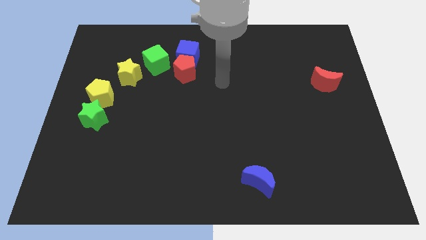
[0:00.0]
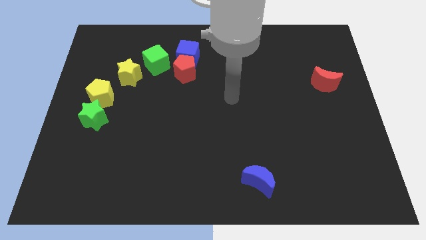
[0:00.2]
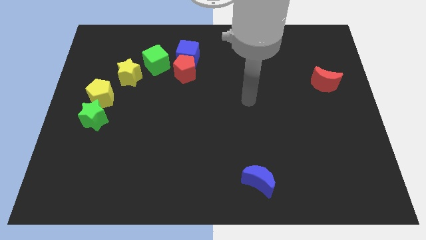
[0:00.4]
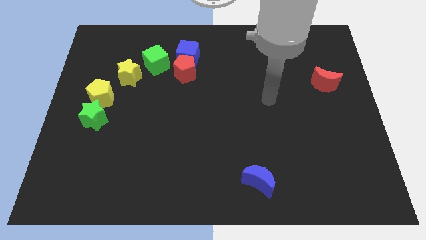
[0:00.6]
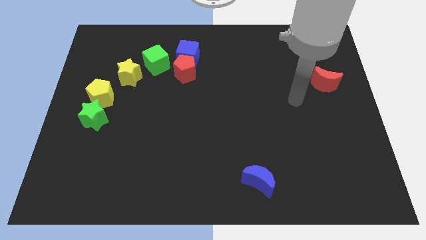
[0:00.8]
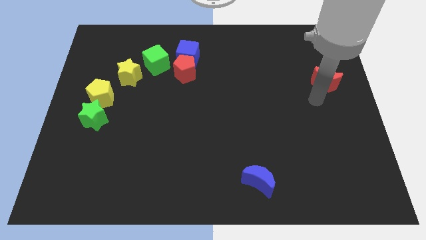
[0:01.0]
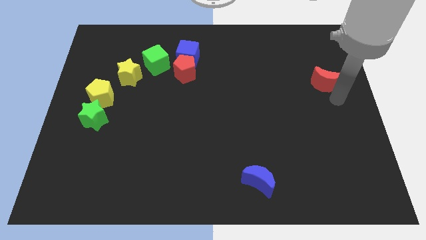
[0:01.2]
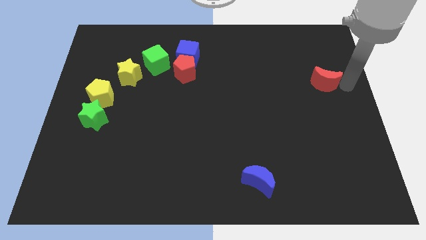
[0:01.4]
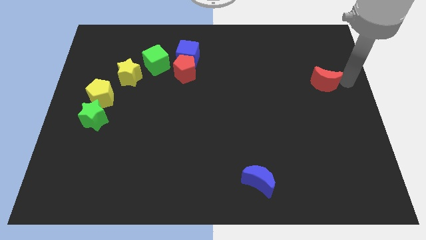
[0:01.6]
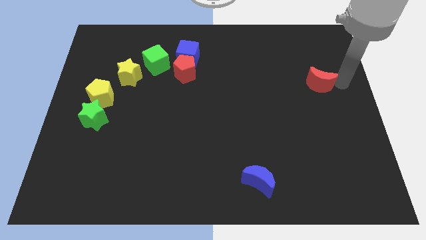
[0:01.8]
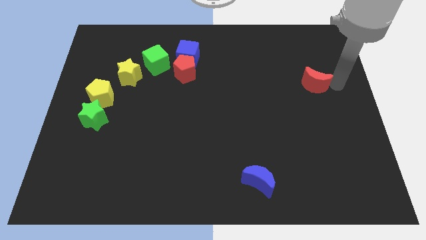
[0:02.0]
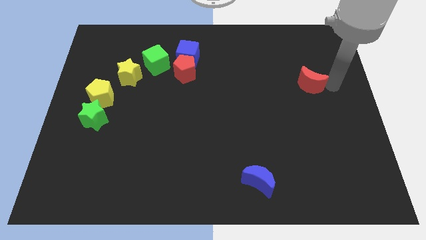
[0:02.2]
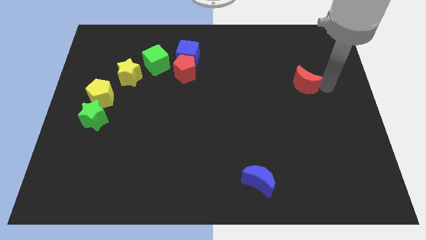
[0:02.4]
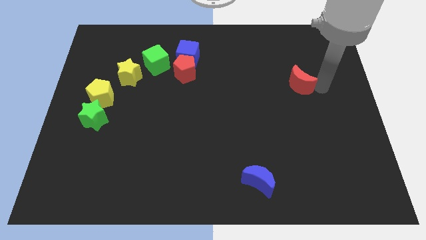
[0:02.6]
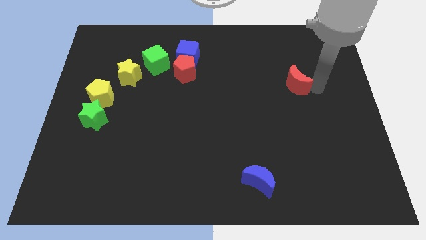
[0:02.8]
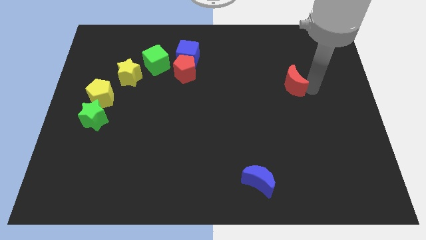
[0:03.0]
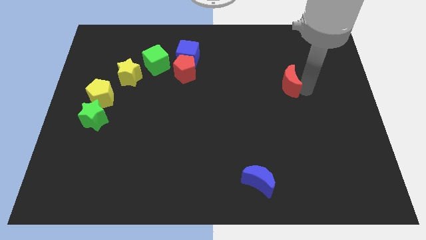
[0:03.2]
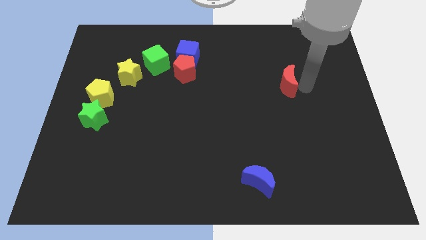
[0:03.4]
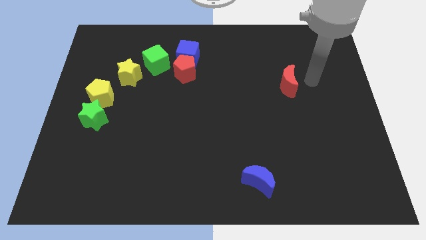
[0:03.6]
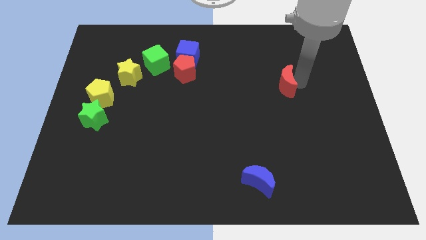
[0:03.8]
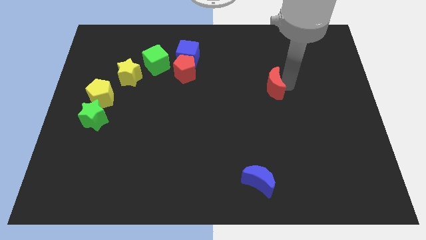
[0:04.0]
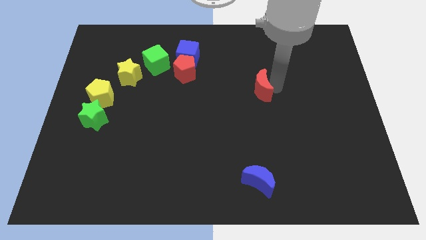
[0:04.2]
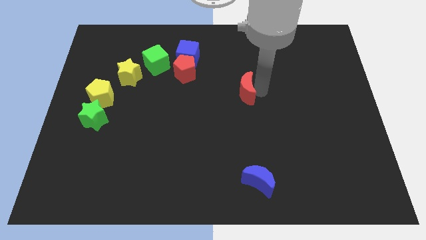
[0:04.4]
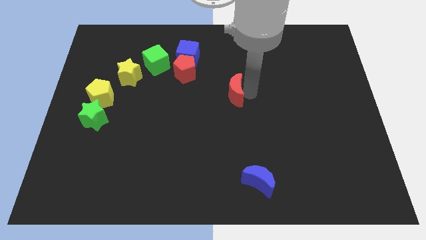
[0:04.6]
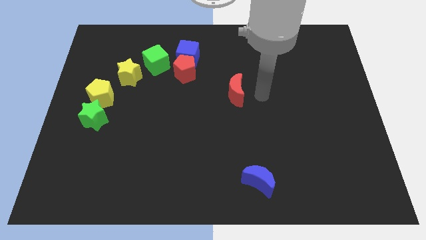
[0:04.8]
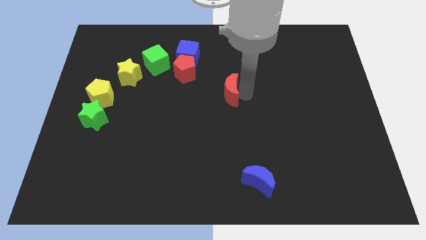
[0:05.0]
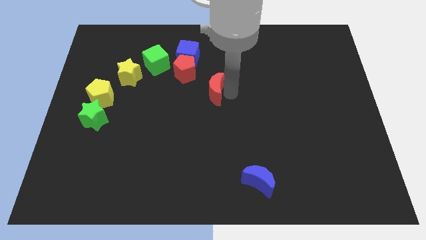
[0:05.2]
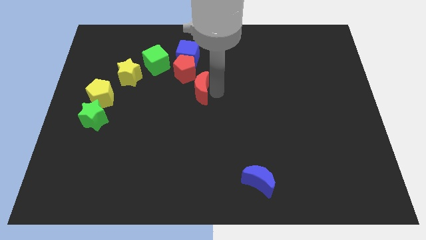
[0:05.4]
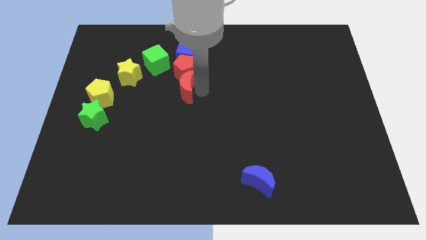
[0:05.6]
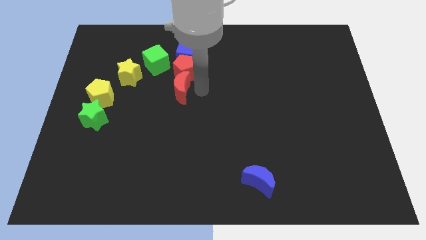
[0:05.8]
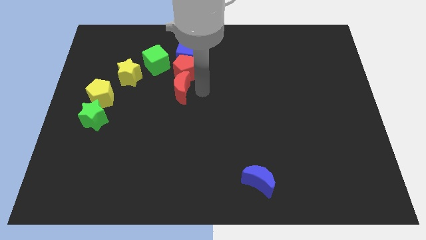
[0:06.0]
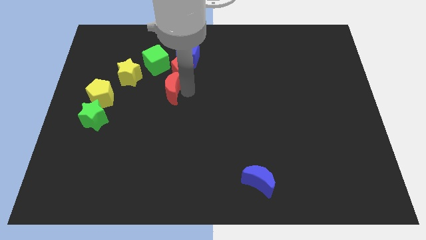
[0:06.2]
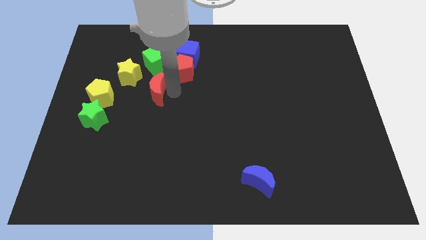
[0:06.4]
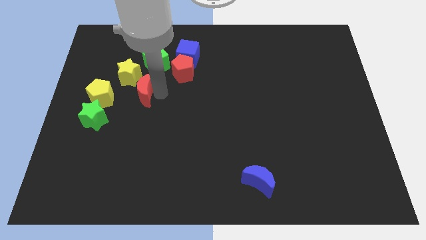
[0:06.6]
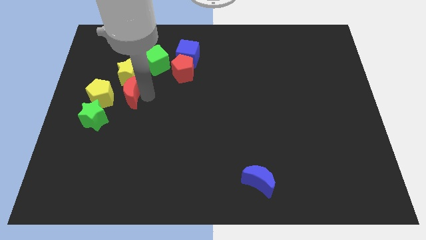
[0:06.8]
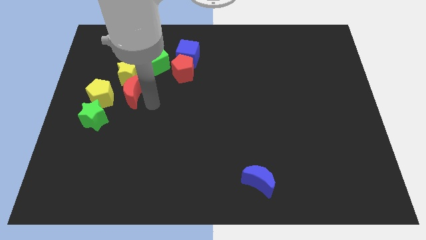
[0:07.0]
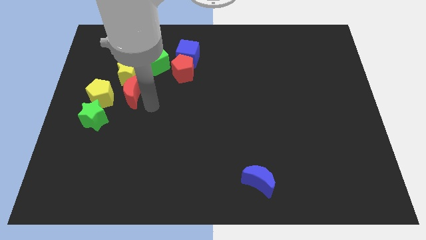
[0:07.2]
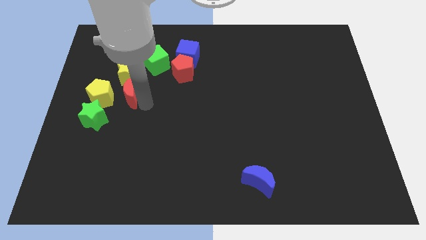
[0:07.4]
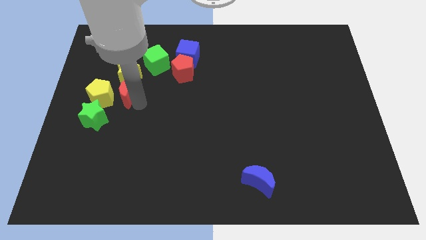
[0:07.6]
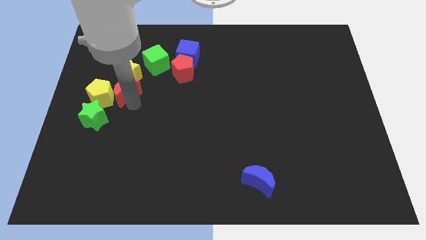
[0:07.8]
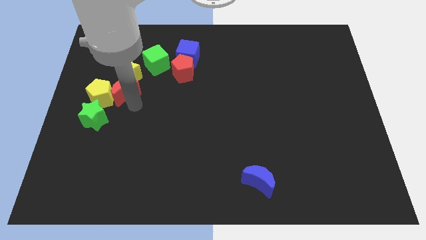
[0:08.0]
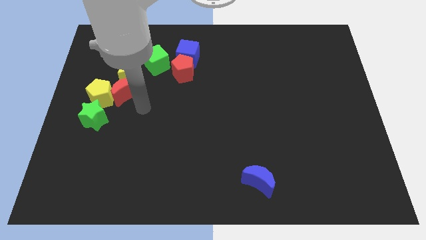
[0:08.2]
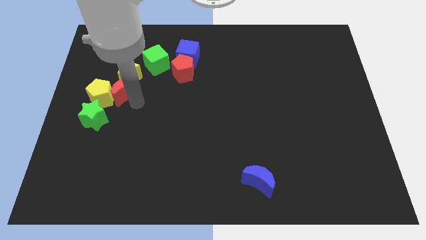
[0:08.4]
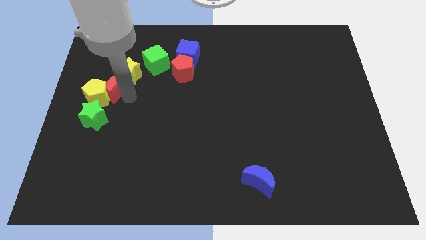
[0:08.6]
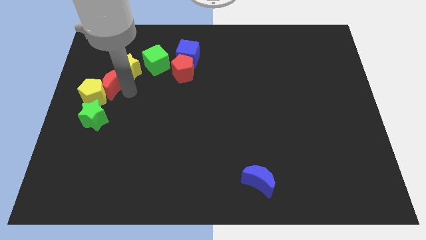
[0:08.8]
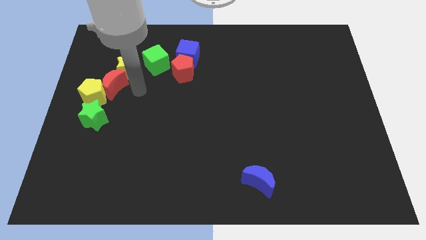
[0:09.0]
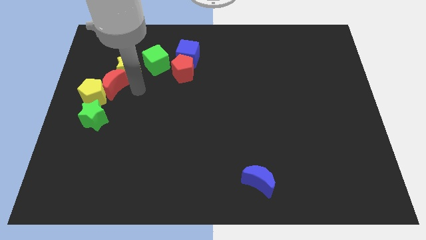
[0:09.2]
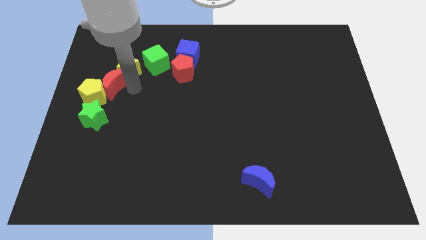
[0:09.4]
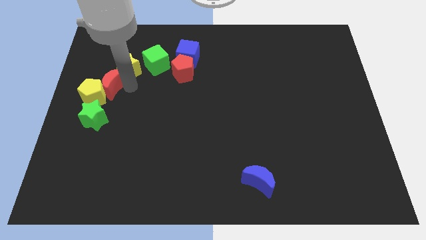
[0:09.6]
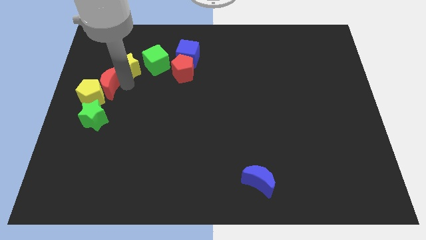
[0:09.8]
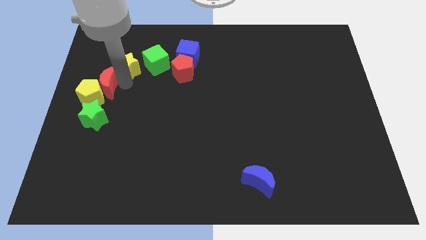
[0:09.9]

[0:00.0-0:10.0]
move the red moon to the center left

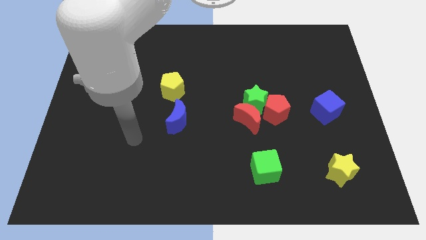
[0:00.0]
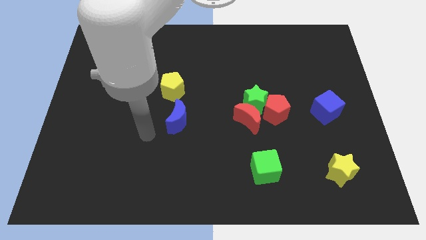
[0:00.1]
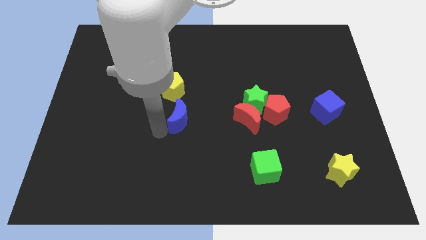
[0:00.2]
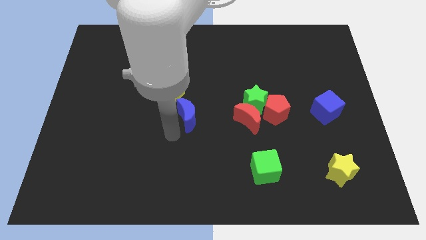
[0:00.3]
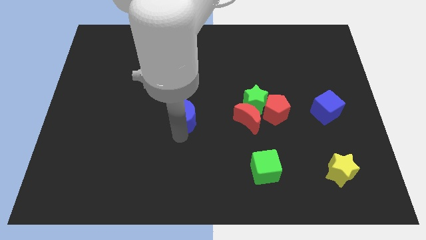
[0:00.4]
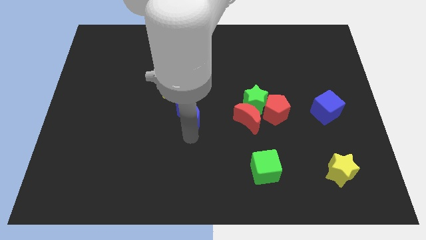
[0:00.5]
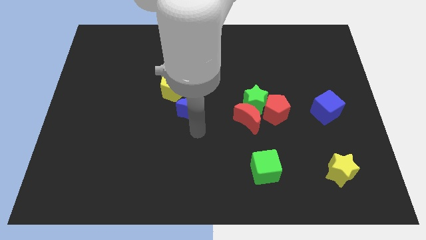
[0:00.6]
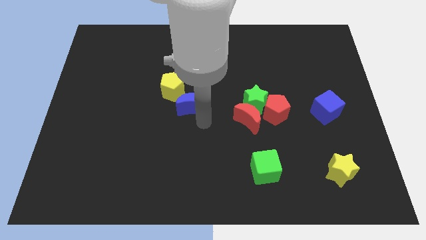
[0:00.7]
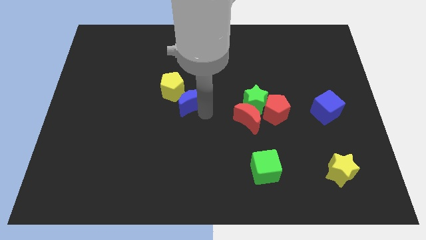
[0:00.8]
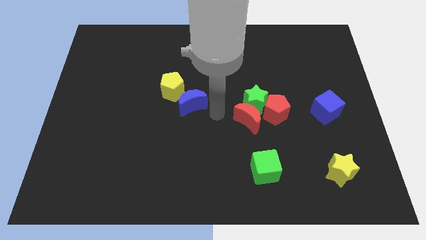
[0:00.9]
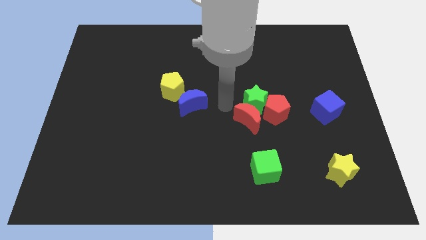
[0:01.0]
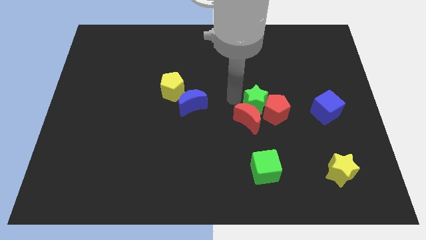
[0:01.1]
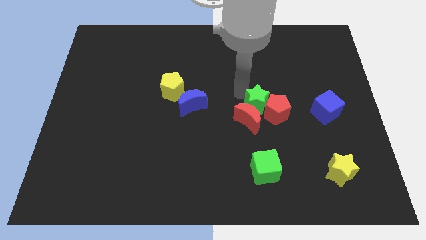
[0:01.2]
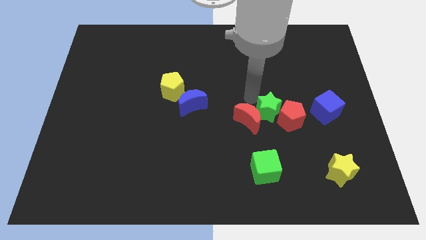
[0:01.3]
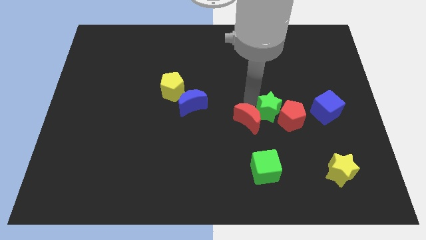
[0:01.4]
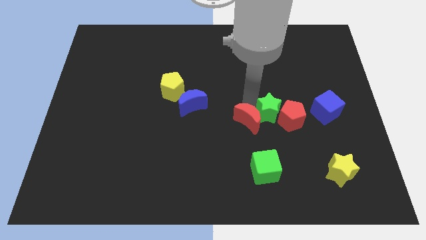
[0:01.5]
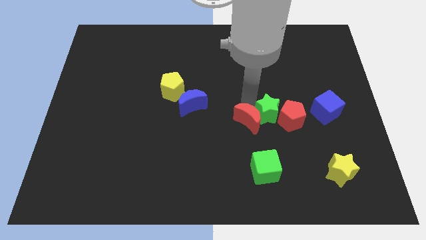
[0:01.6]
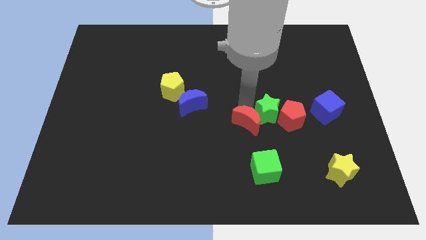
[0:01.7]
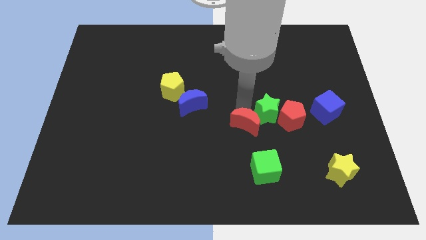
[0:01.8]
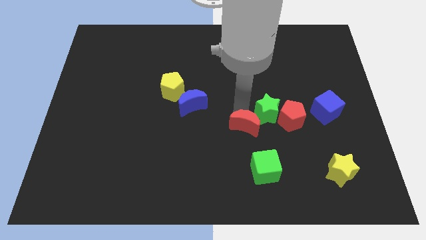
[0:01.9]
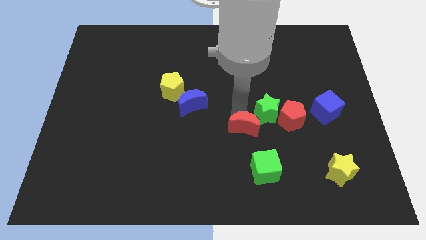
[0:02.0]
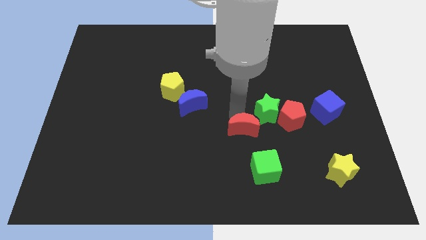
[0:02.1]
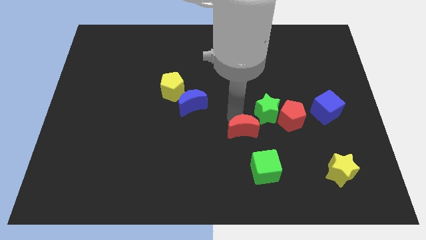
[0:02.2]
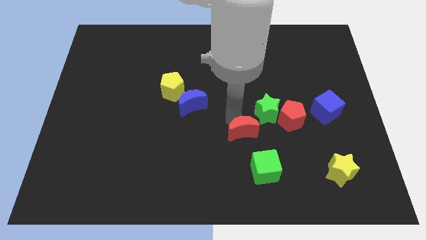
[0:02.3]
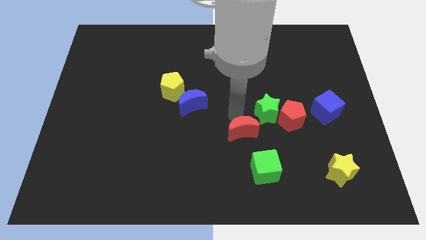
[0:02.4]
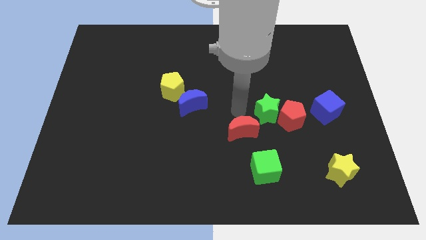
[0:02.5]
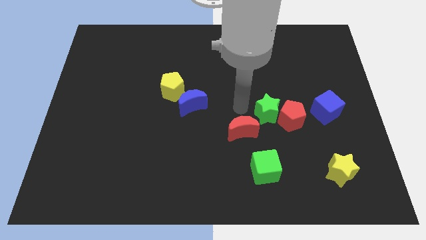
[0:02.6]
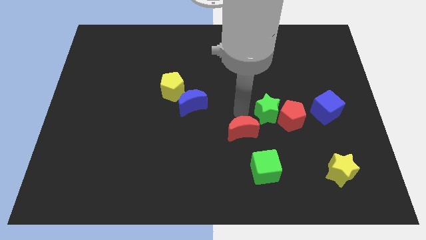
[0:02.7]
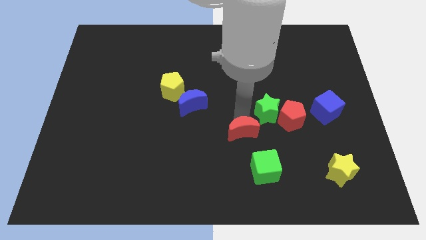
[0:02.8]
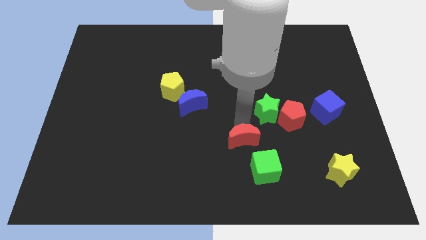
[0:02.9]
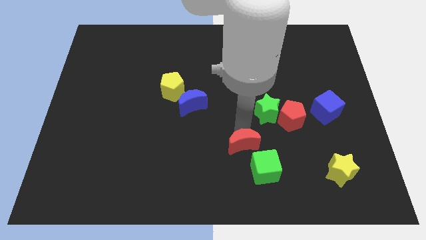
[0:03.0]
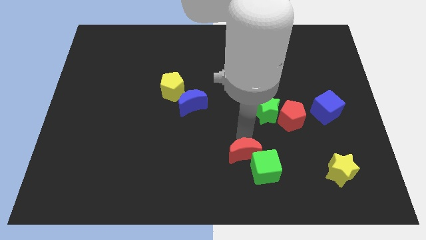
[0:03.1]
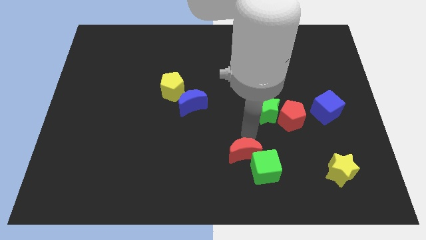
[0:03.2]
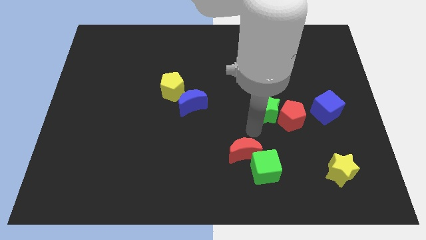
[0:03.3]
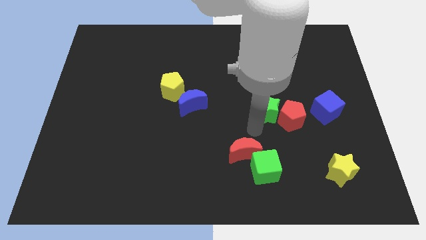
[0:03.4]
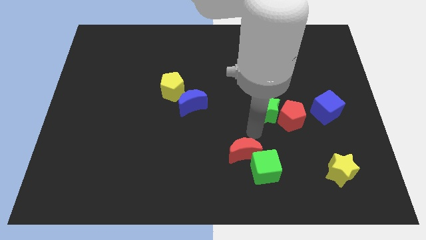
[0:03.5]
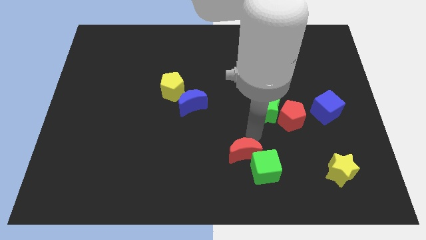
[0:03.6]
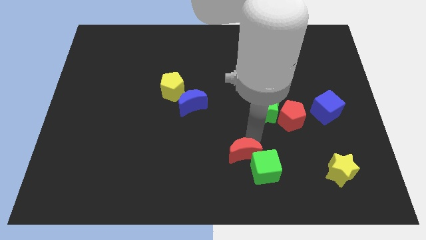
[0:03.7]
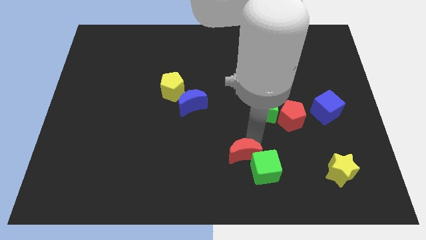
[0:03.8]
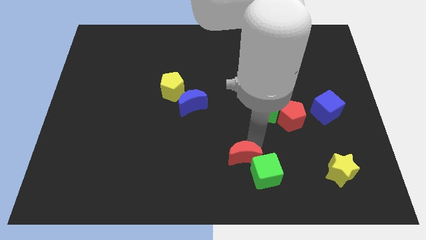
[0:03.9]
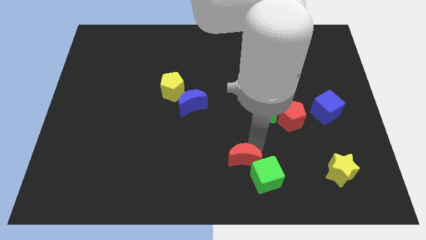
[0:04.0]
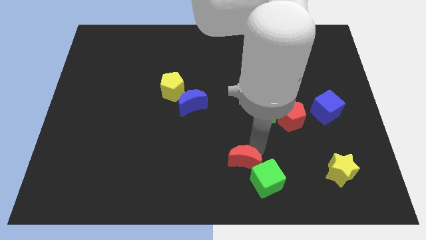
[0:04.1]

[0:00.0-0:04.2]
move the red moon to the bottom
